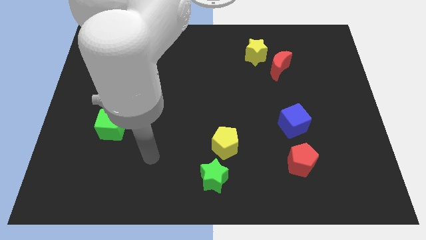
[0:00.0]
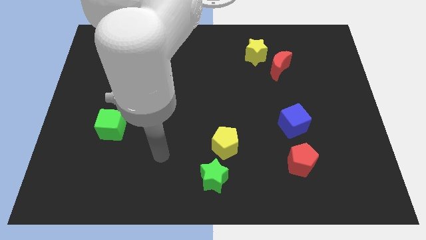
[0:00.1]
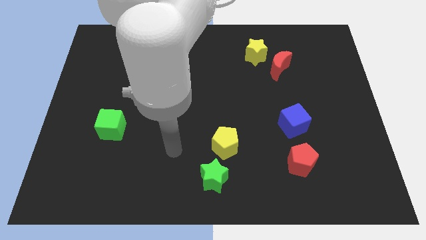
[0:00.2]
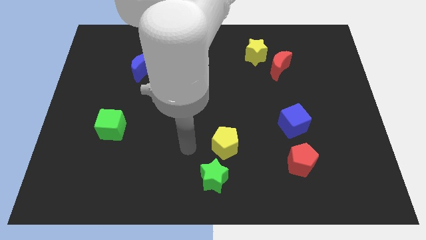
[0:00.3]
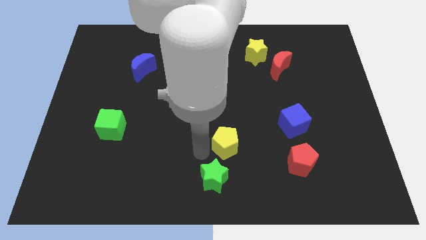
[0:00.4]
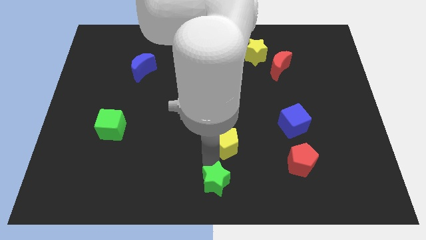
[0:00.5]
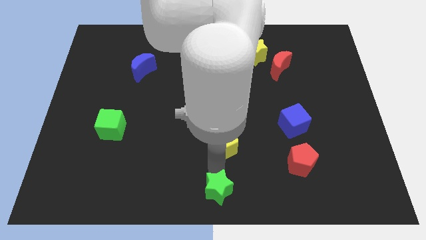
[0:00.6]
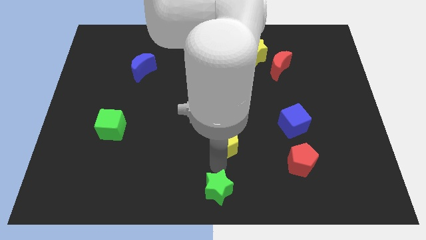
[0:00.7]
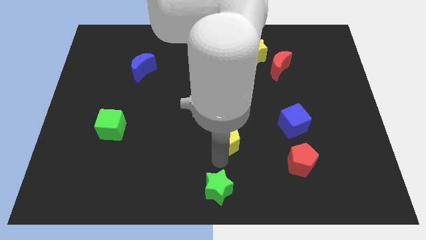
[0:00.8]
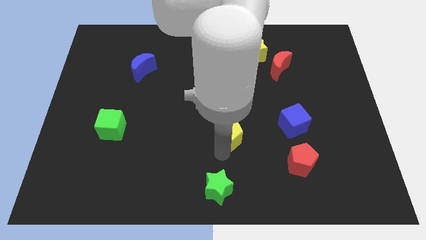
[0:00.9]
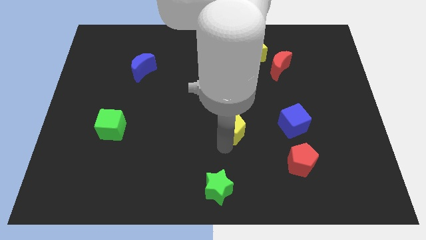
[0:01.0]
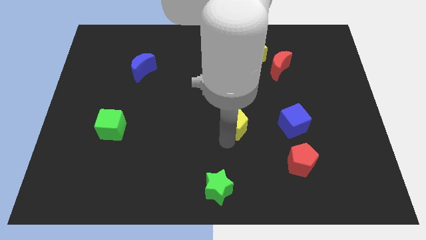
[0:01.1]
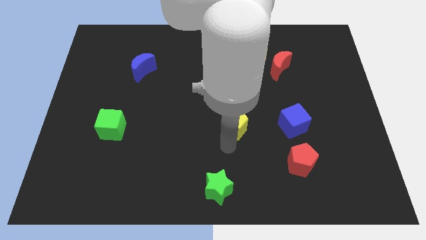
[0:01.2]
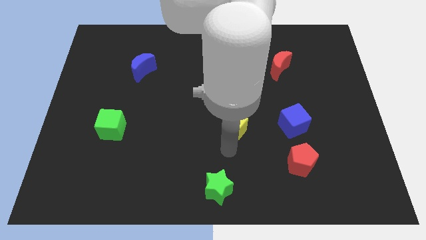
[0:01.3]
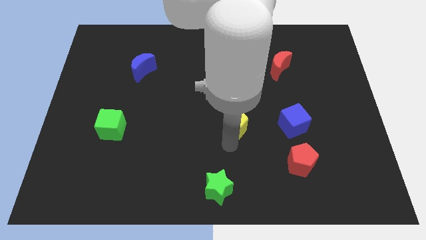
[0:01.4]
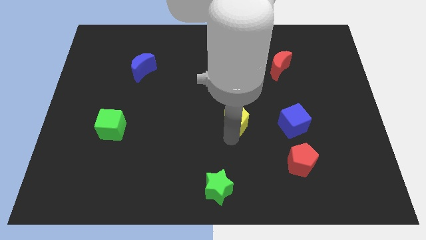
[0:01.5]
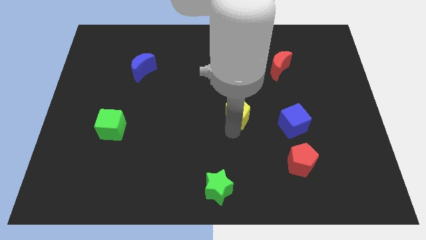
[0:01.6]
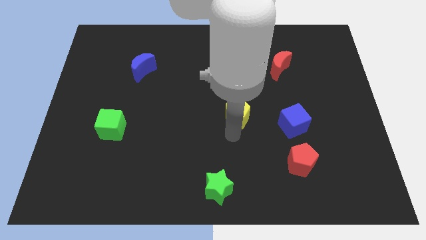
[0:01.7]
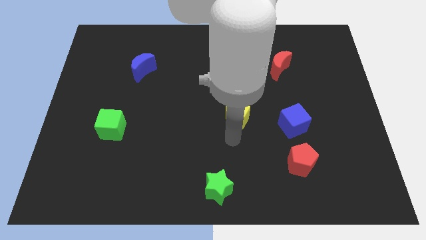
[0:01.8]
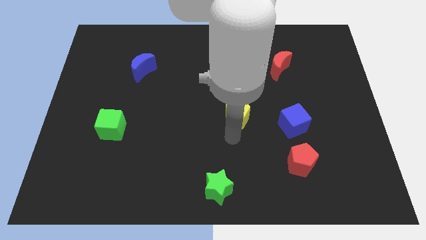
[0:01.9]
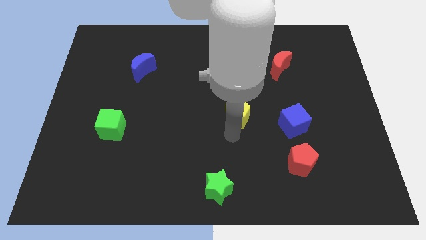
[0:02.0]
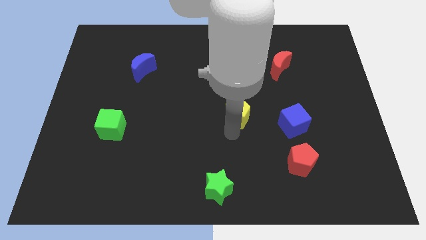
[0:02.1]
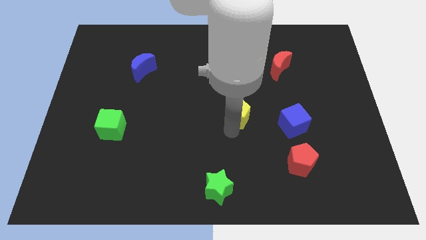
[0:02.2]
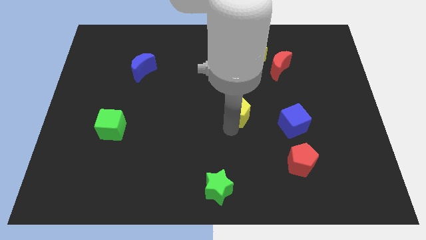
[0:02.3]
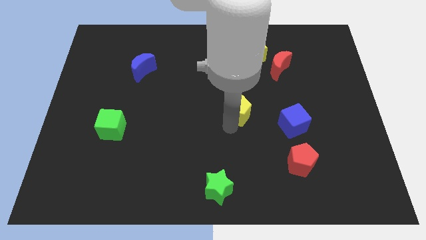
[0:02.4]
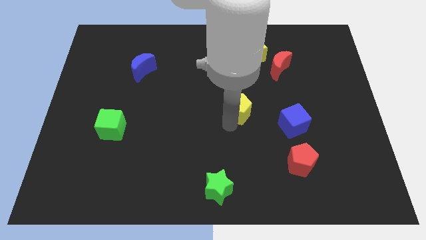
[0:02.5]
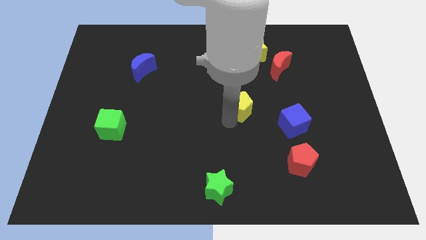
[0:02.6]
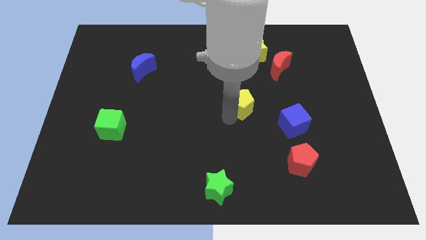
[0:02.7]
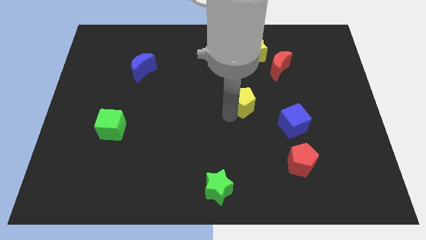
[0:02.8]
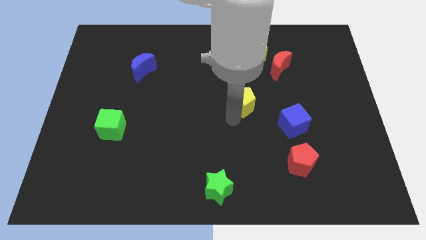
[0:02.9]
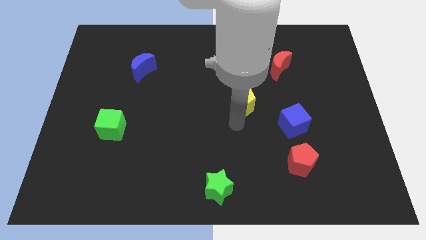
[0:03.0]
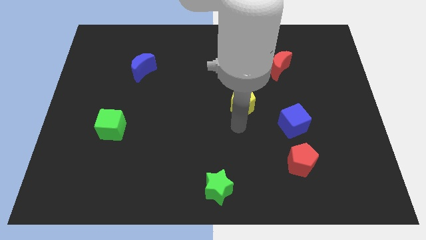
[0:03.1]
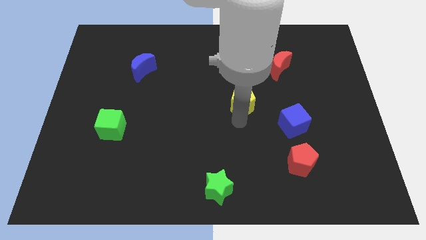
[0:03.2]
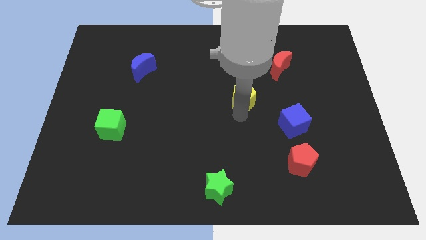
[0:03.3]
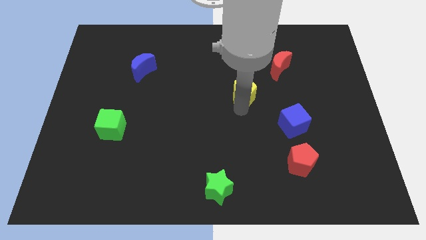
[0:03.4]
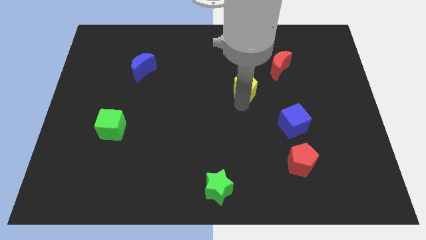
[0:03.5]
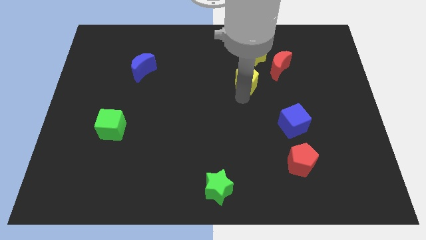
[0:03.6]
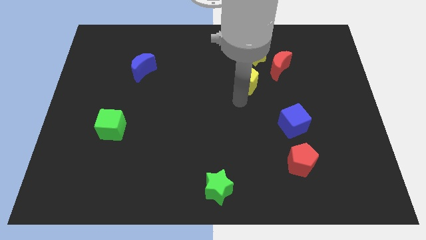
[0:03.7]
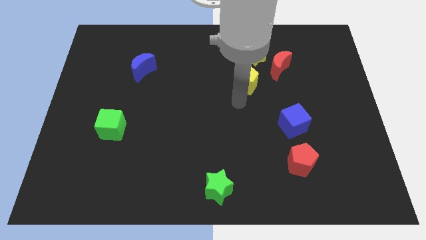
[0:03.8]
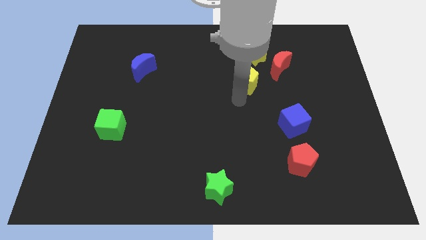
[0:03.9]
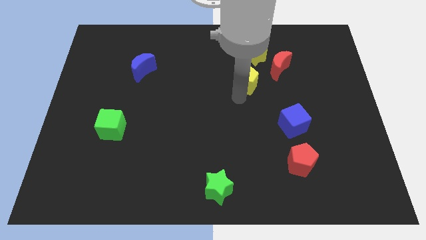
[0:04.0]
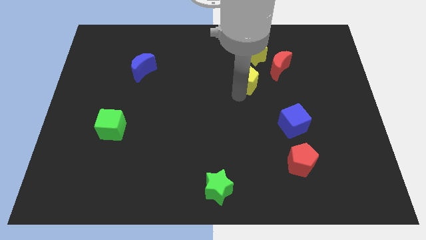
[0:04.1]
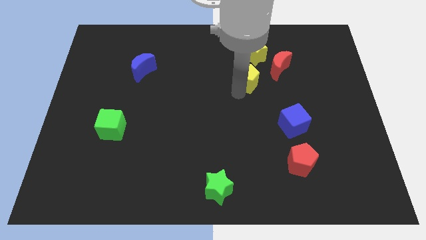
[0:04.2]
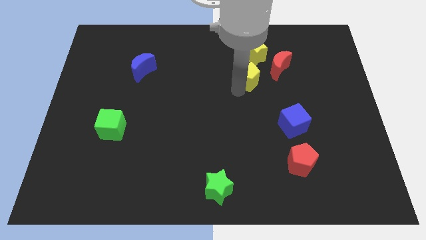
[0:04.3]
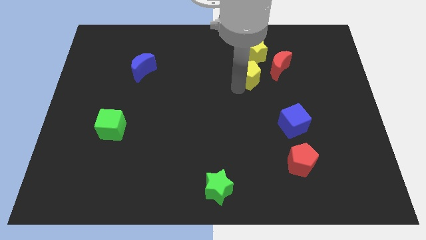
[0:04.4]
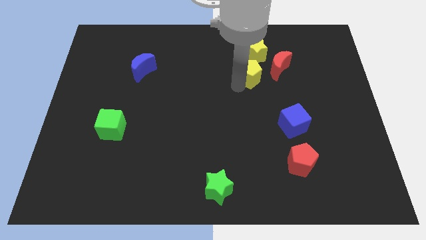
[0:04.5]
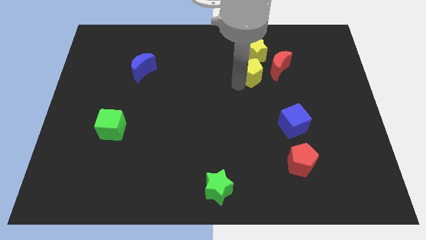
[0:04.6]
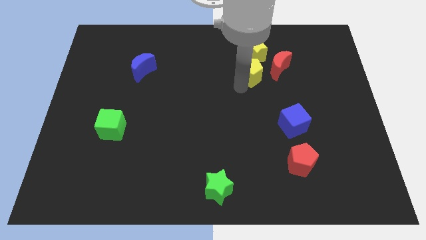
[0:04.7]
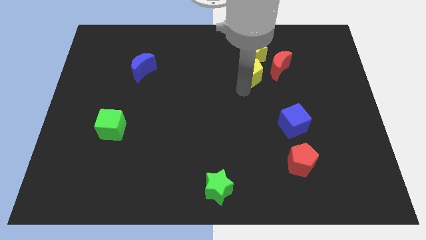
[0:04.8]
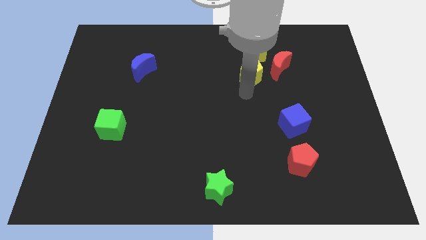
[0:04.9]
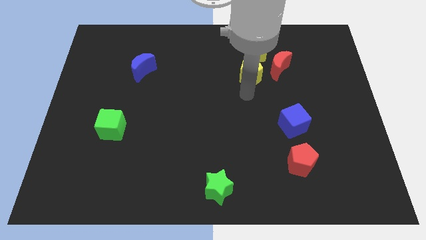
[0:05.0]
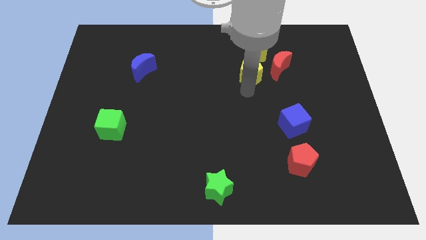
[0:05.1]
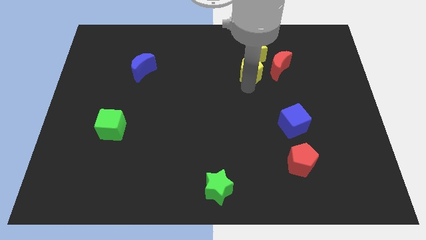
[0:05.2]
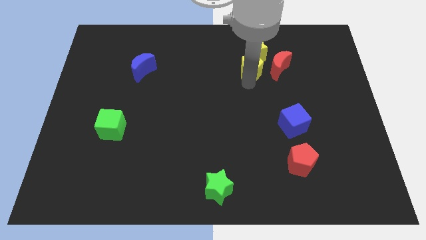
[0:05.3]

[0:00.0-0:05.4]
move the yellow pentagon towards the yellow star

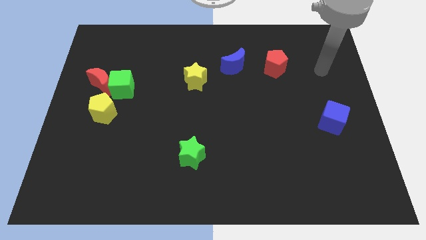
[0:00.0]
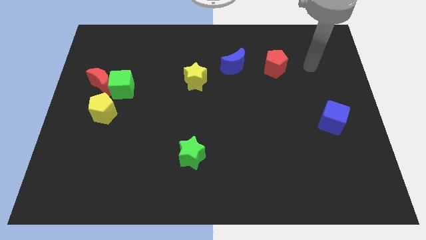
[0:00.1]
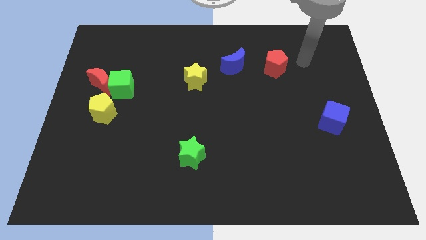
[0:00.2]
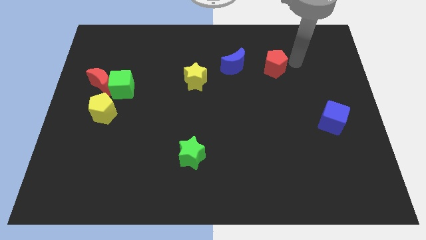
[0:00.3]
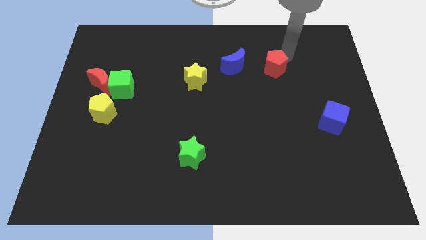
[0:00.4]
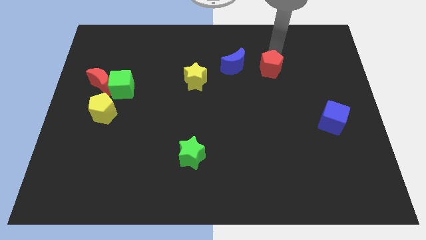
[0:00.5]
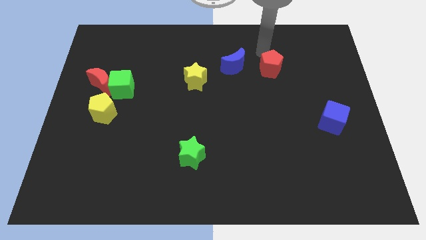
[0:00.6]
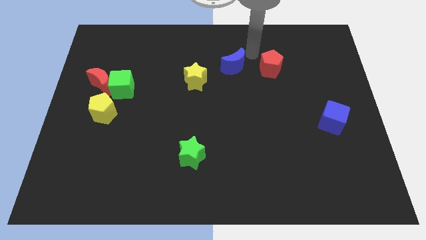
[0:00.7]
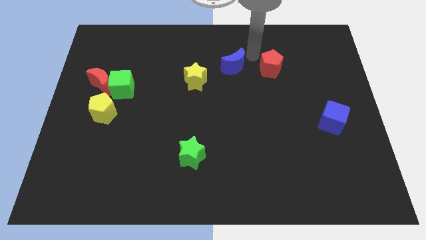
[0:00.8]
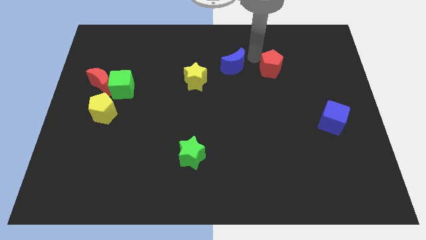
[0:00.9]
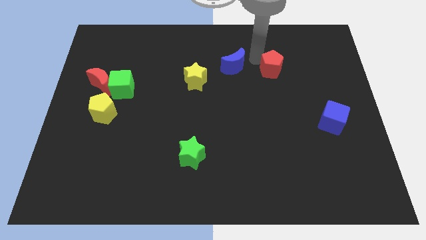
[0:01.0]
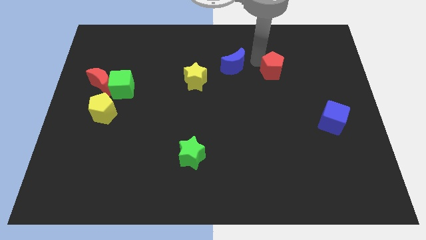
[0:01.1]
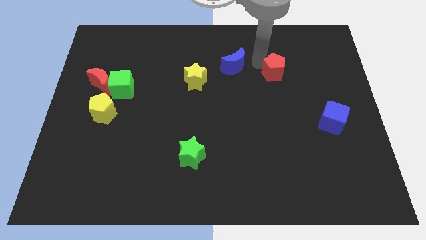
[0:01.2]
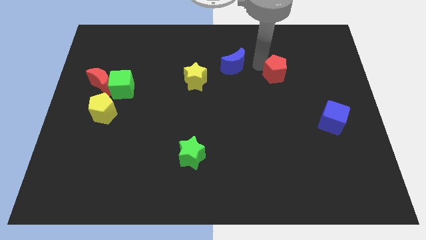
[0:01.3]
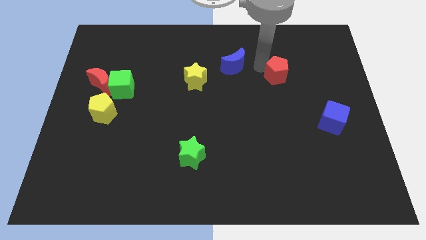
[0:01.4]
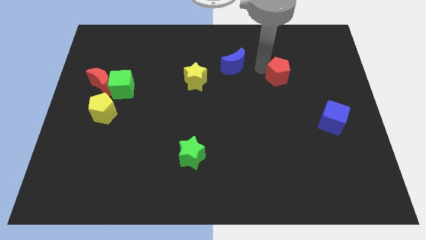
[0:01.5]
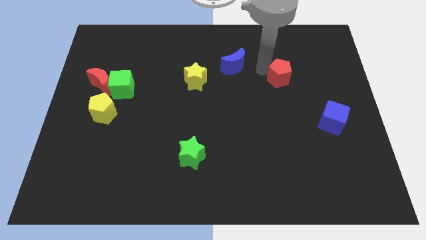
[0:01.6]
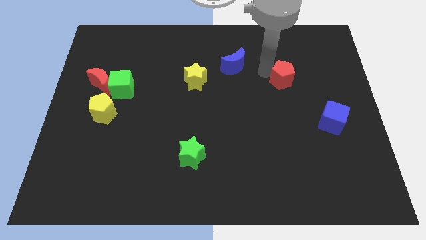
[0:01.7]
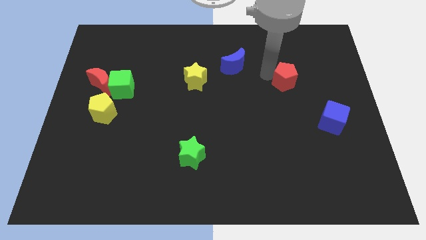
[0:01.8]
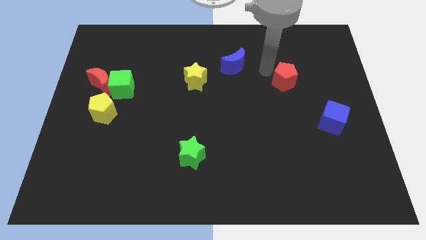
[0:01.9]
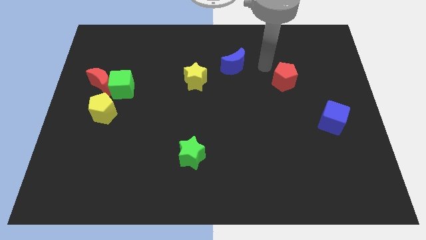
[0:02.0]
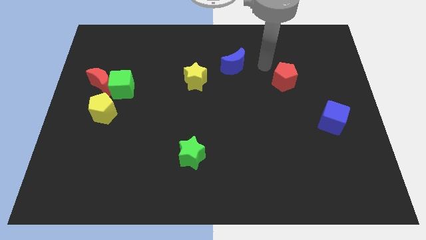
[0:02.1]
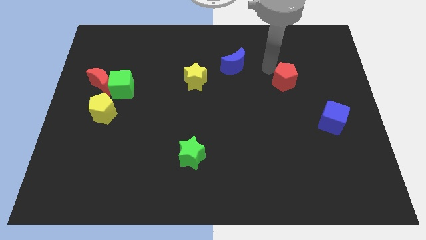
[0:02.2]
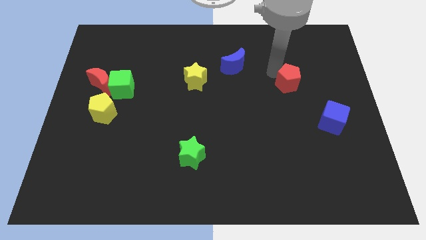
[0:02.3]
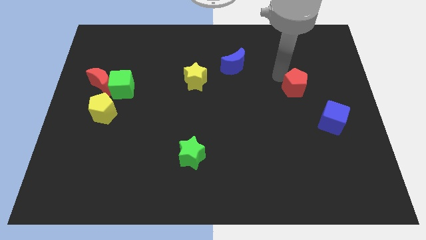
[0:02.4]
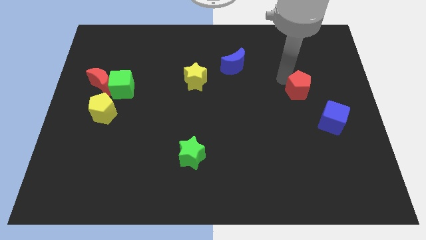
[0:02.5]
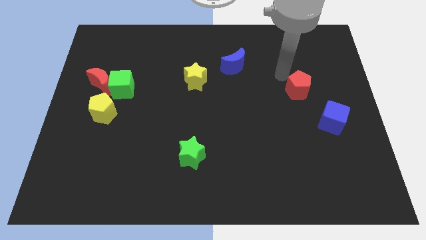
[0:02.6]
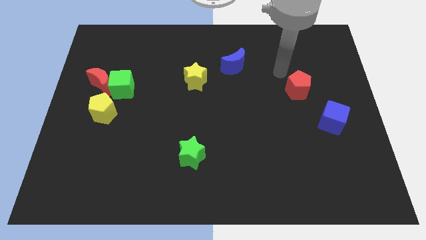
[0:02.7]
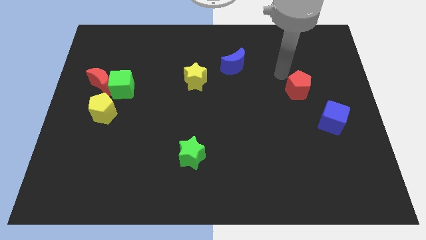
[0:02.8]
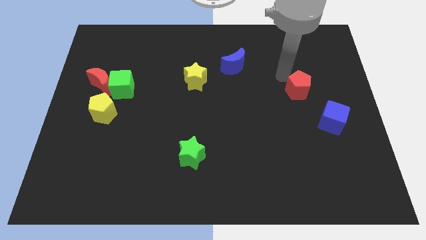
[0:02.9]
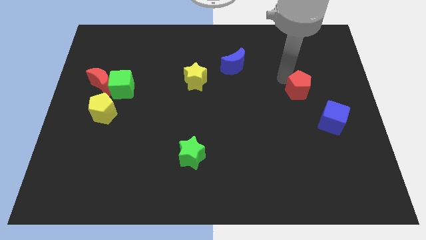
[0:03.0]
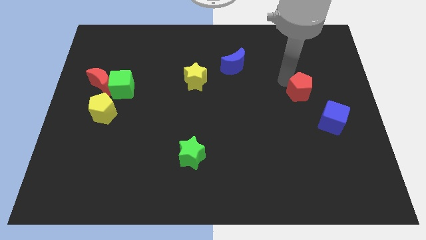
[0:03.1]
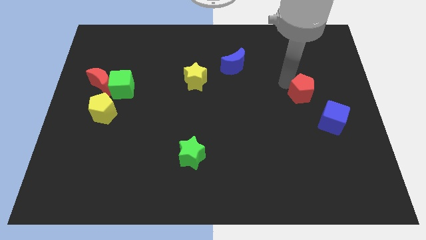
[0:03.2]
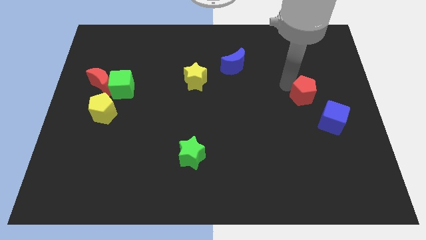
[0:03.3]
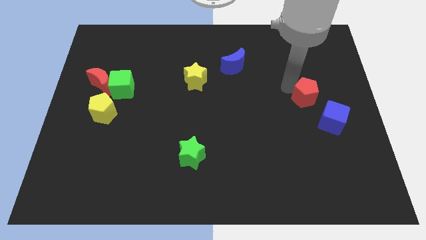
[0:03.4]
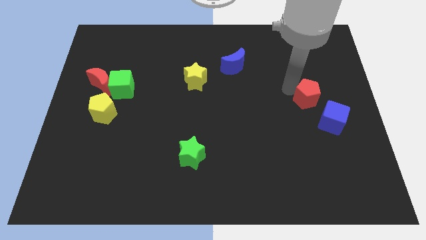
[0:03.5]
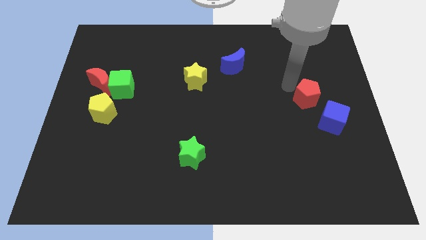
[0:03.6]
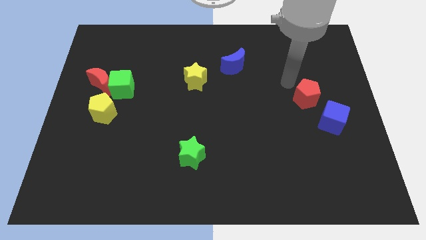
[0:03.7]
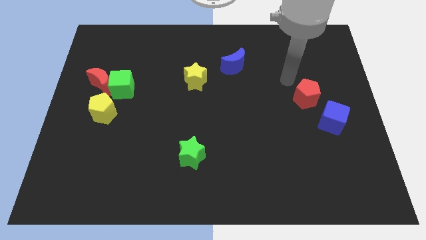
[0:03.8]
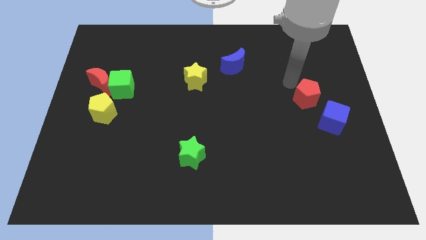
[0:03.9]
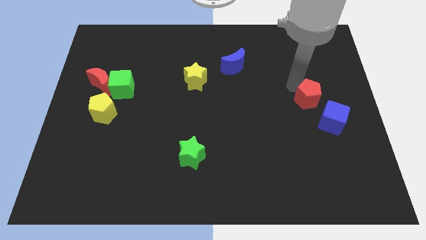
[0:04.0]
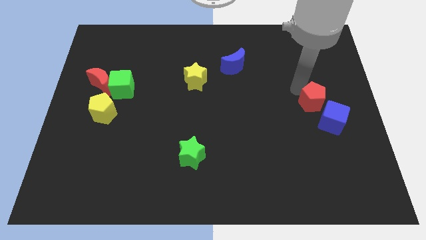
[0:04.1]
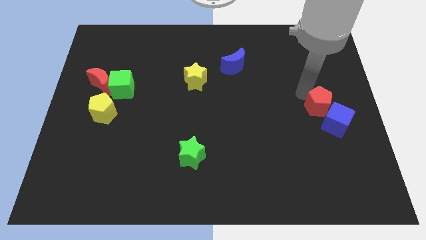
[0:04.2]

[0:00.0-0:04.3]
move the red pentagon towards the blue cube
